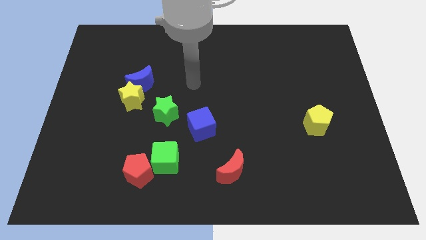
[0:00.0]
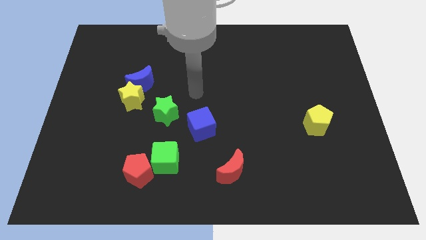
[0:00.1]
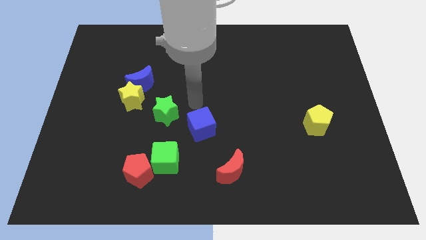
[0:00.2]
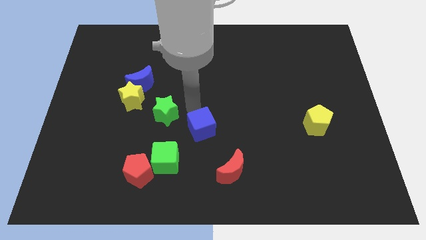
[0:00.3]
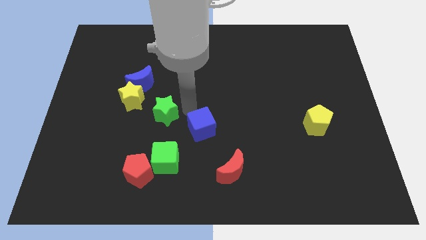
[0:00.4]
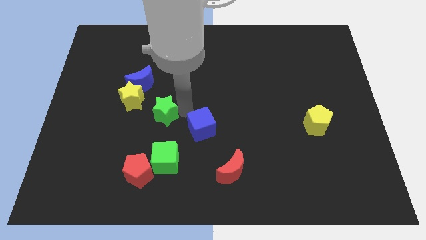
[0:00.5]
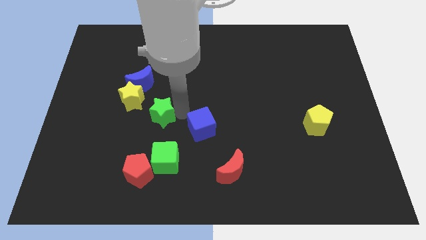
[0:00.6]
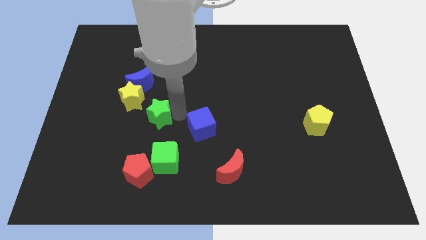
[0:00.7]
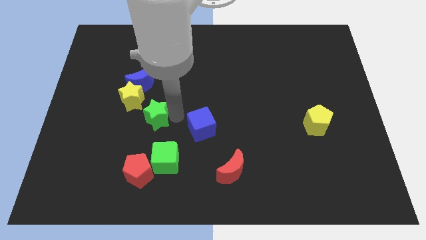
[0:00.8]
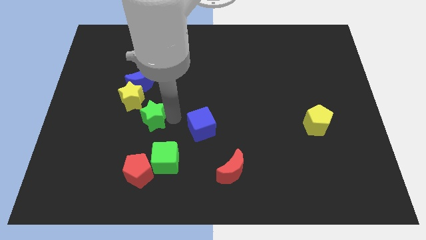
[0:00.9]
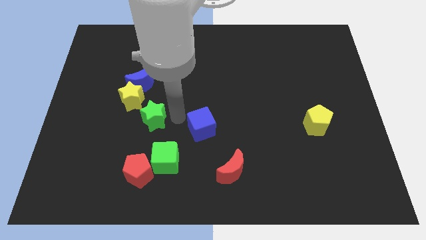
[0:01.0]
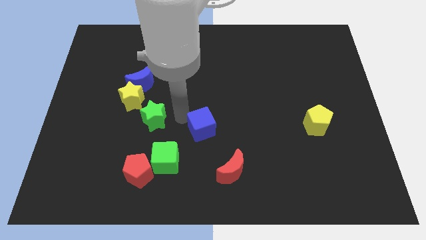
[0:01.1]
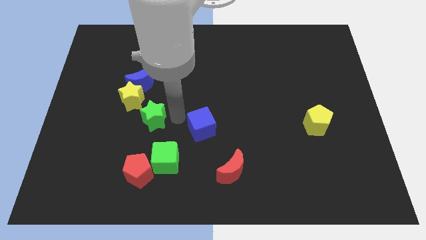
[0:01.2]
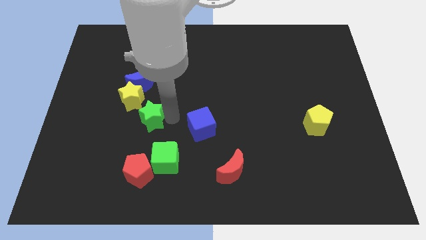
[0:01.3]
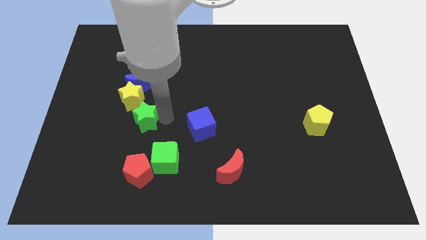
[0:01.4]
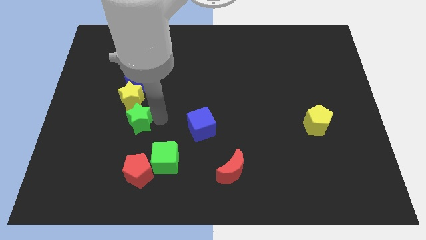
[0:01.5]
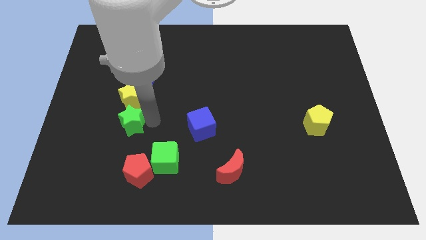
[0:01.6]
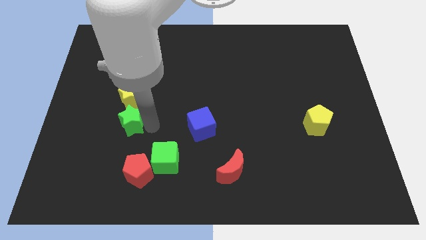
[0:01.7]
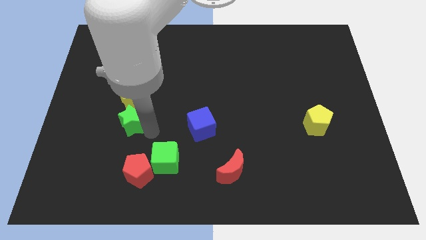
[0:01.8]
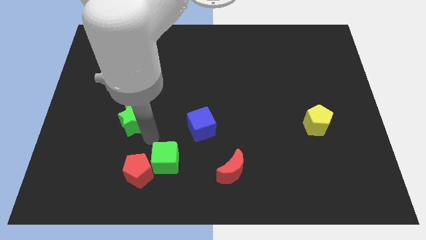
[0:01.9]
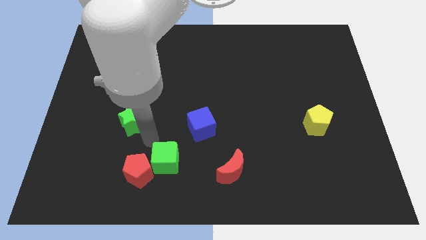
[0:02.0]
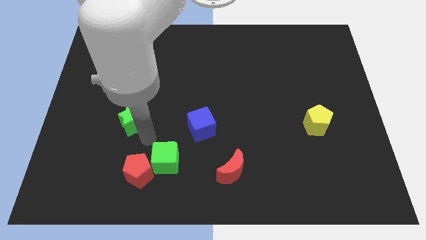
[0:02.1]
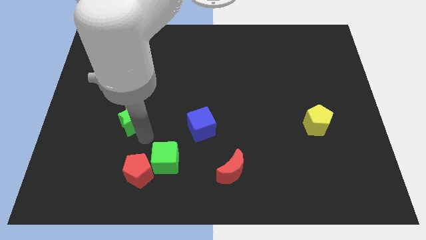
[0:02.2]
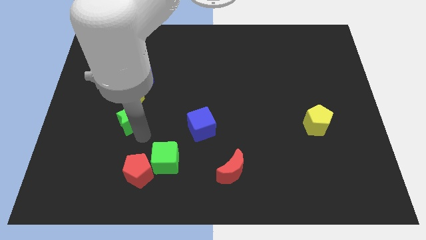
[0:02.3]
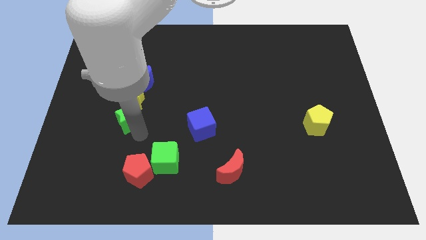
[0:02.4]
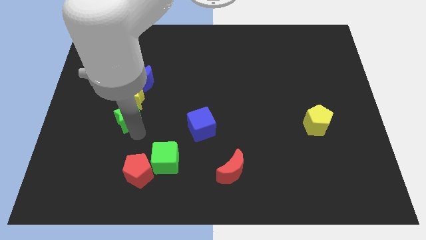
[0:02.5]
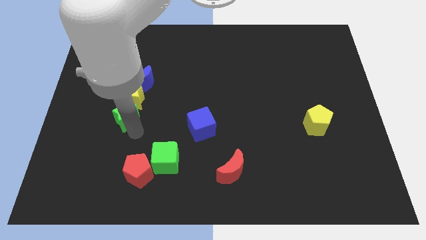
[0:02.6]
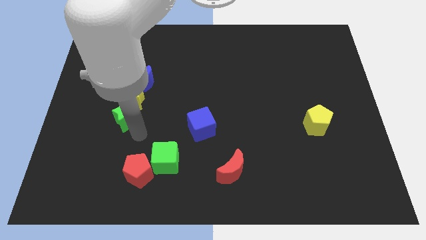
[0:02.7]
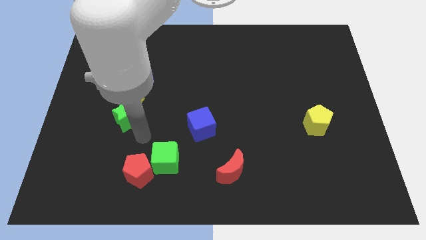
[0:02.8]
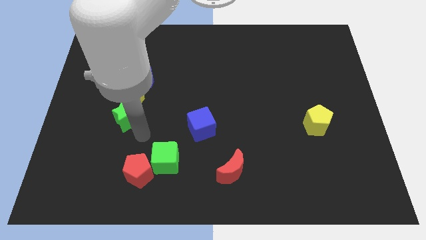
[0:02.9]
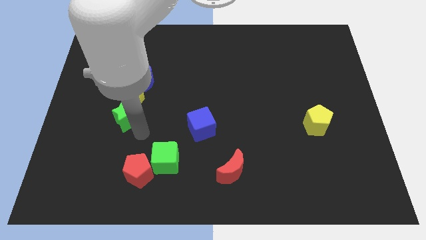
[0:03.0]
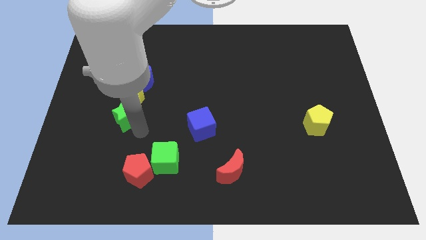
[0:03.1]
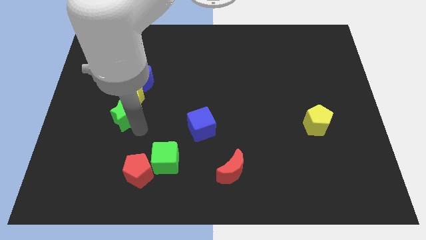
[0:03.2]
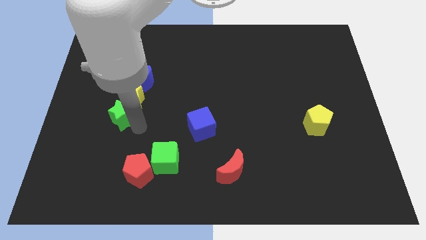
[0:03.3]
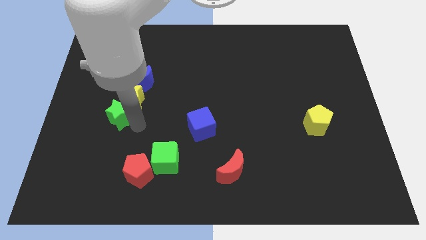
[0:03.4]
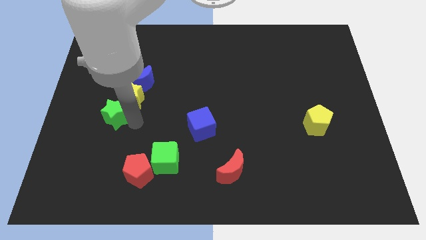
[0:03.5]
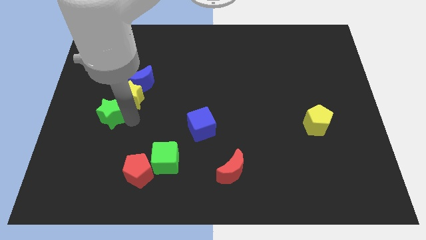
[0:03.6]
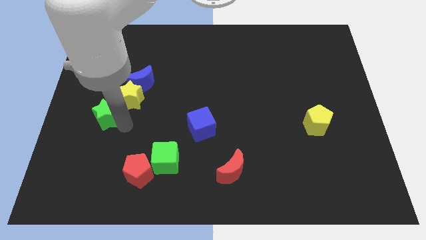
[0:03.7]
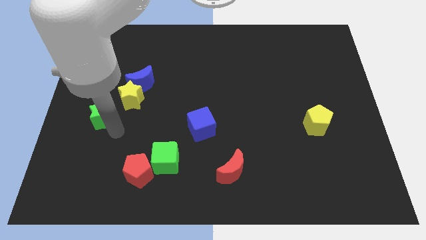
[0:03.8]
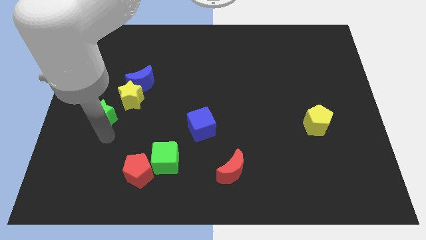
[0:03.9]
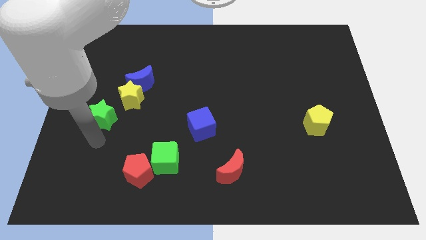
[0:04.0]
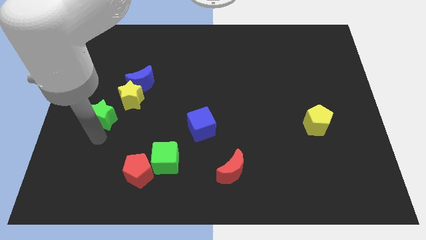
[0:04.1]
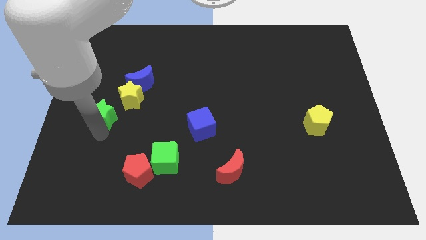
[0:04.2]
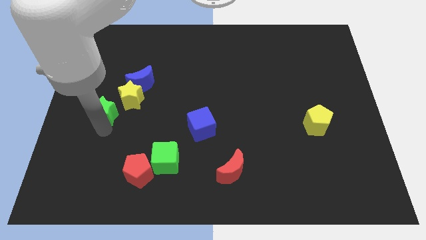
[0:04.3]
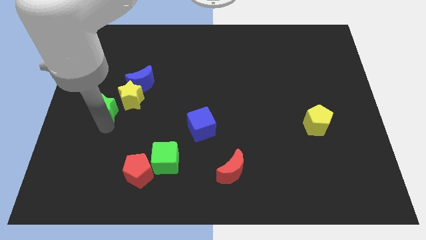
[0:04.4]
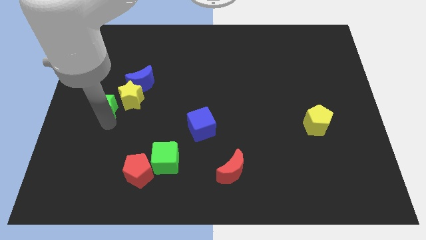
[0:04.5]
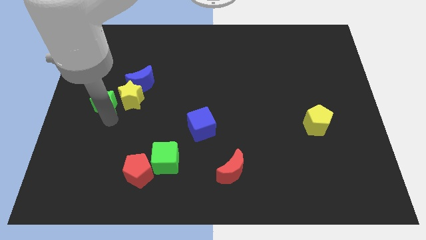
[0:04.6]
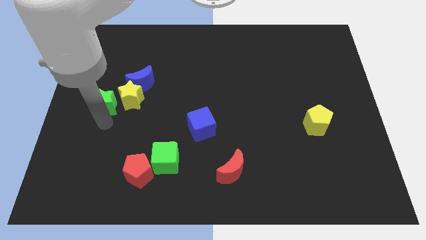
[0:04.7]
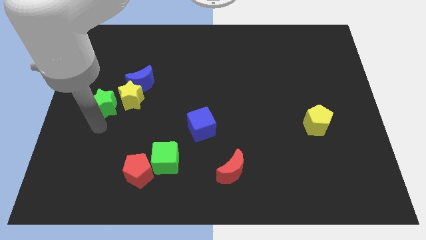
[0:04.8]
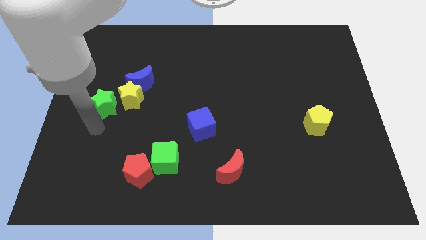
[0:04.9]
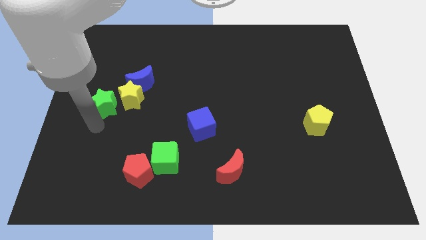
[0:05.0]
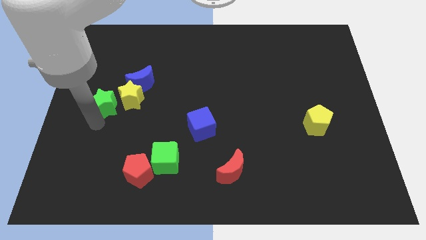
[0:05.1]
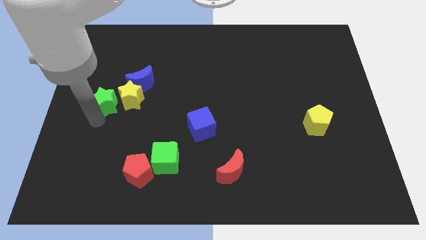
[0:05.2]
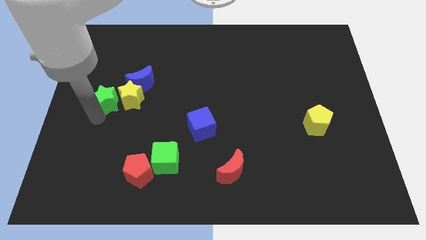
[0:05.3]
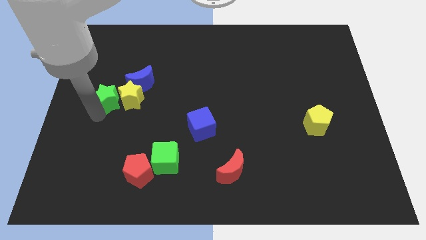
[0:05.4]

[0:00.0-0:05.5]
move the green star diagonally up and to the left of the yellow star

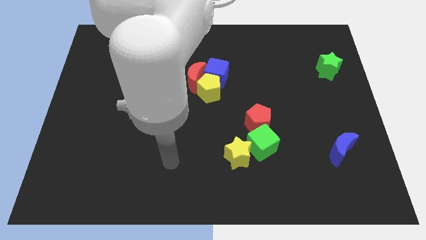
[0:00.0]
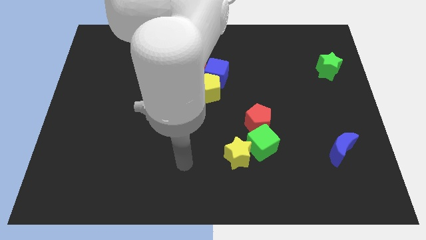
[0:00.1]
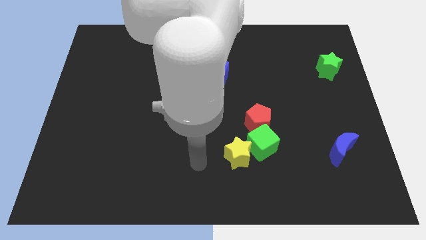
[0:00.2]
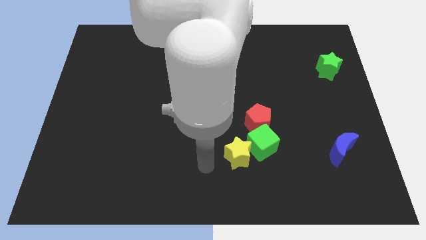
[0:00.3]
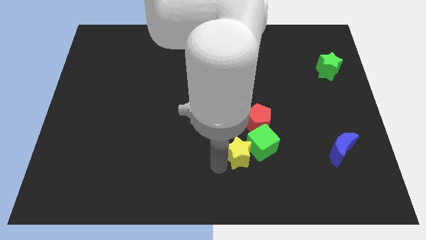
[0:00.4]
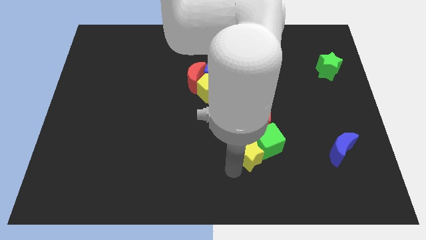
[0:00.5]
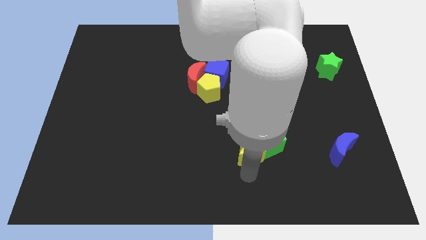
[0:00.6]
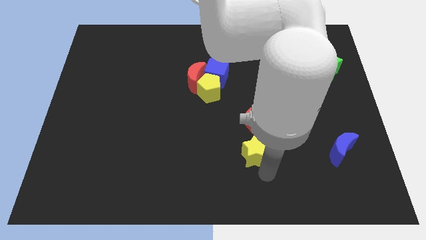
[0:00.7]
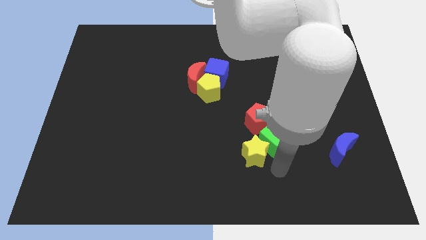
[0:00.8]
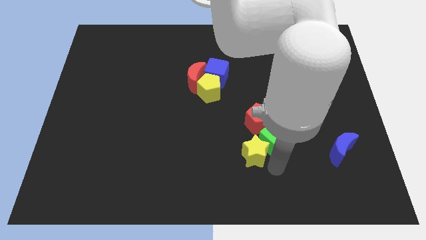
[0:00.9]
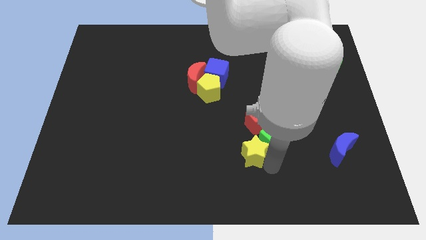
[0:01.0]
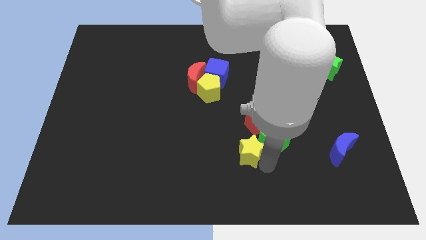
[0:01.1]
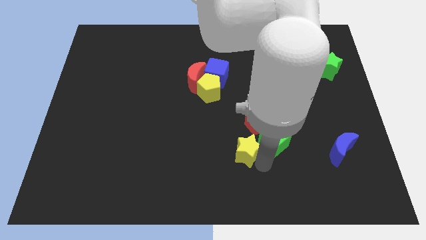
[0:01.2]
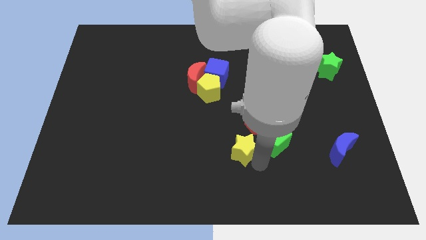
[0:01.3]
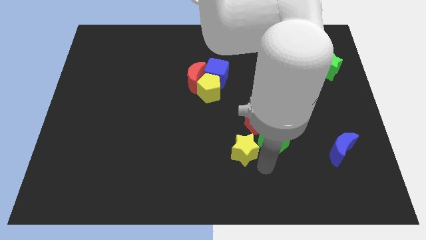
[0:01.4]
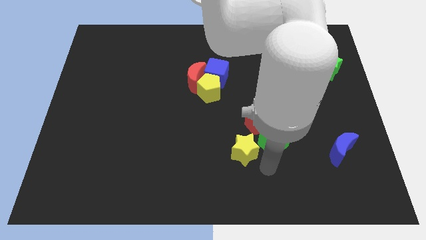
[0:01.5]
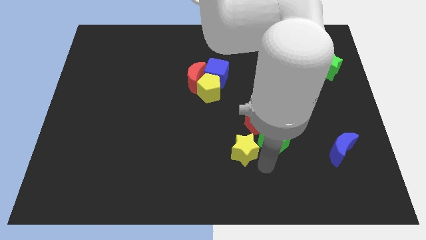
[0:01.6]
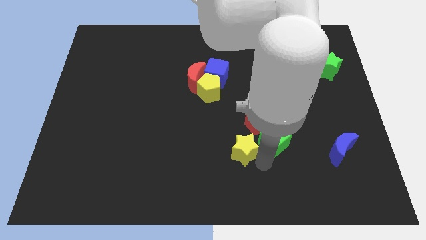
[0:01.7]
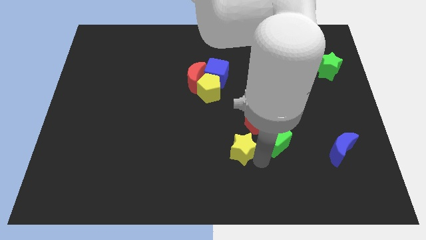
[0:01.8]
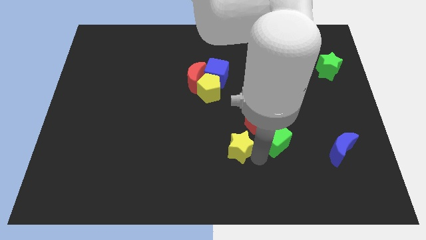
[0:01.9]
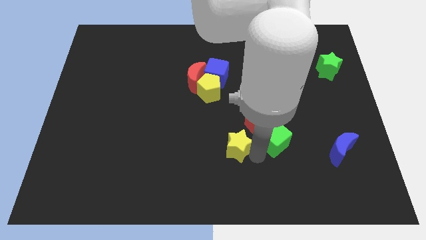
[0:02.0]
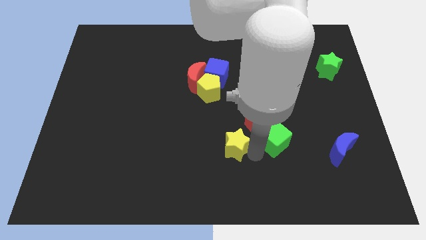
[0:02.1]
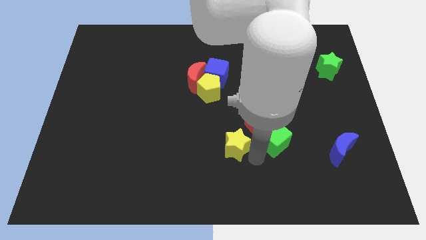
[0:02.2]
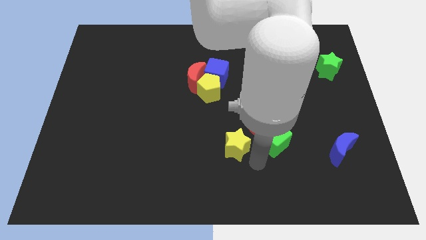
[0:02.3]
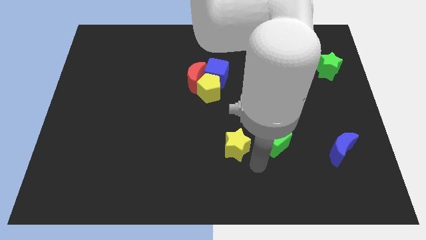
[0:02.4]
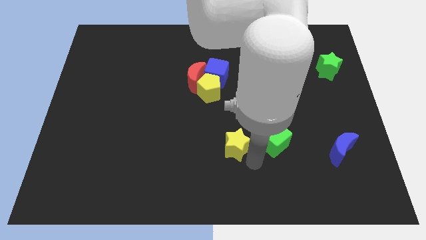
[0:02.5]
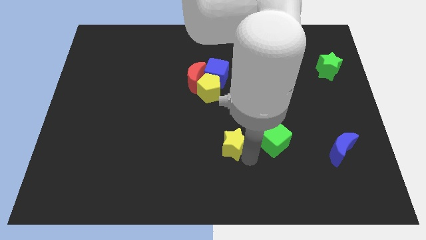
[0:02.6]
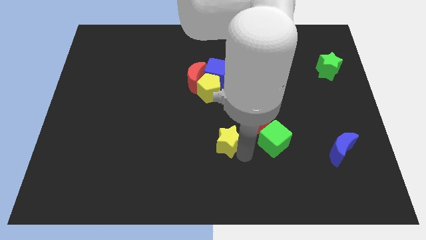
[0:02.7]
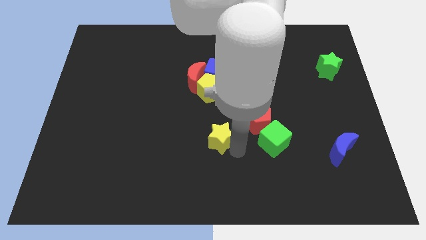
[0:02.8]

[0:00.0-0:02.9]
move the yellow star just left of the red pentagon
